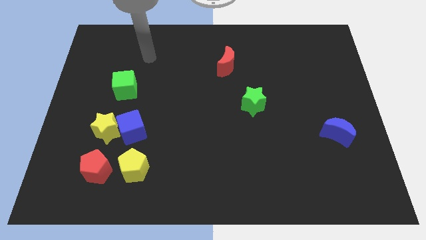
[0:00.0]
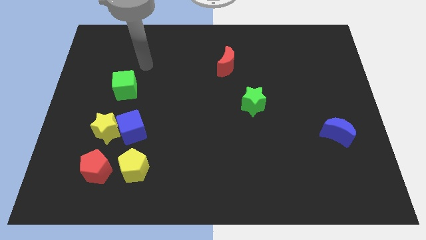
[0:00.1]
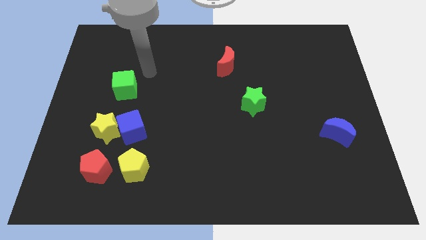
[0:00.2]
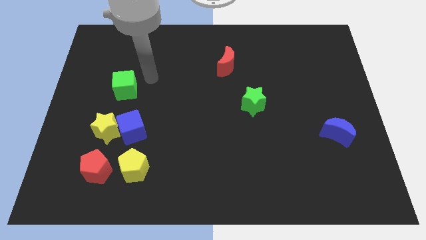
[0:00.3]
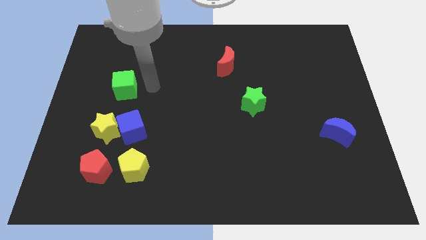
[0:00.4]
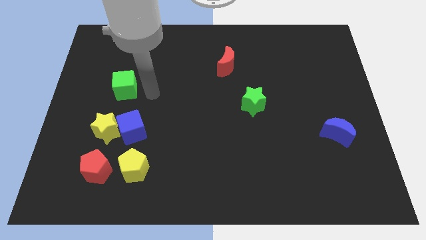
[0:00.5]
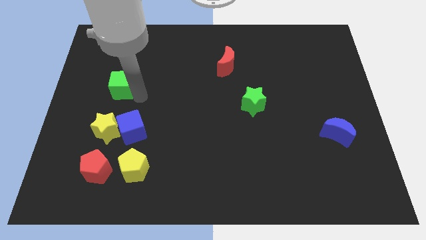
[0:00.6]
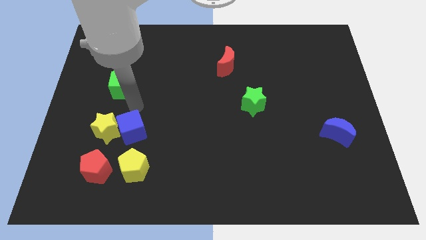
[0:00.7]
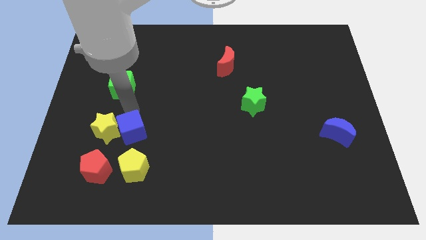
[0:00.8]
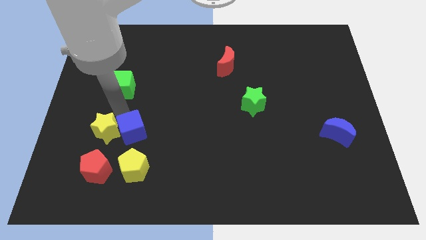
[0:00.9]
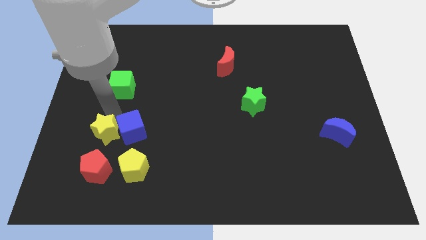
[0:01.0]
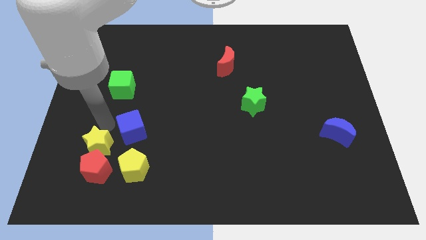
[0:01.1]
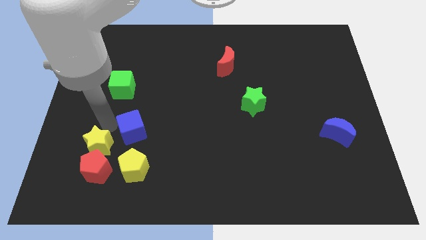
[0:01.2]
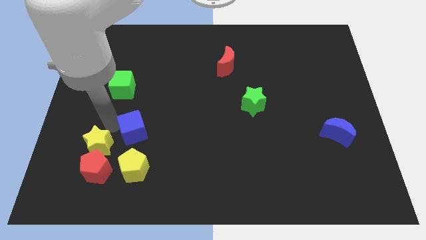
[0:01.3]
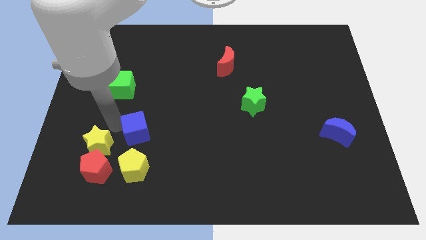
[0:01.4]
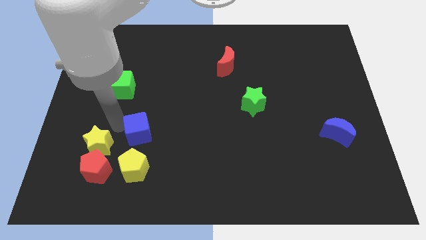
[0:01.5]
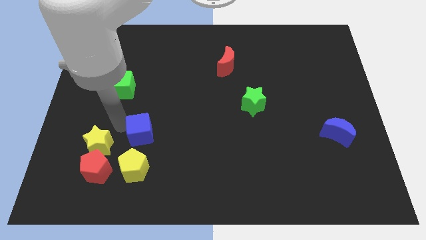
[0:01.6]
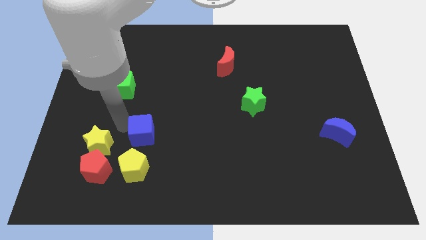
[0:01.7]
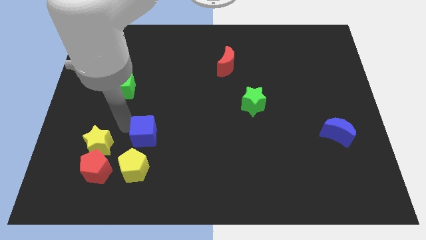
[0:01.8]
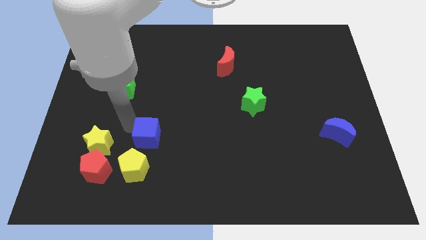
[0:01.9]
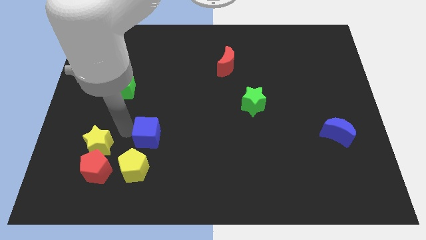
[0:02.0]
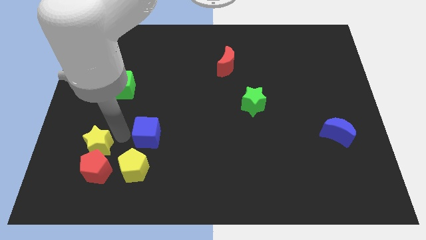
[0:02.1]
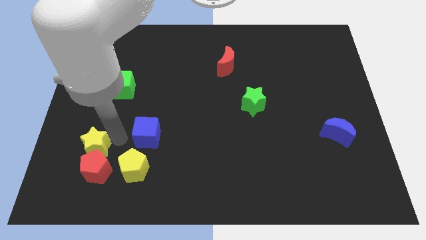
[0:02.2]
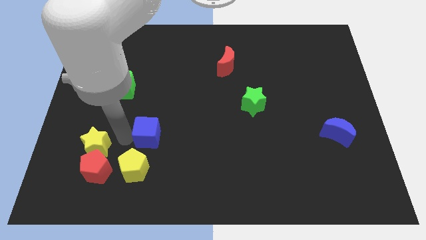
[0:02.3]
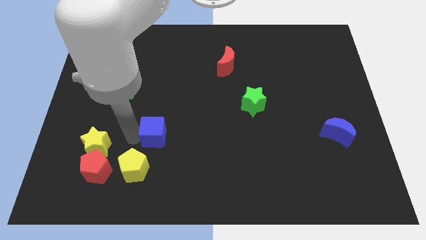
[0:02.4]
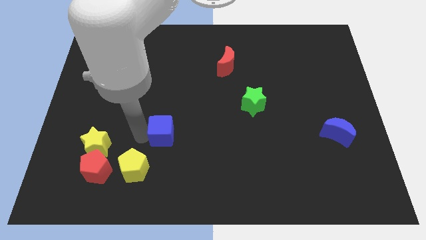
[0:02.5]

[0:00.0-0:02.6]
move the blue cube to the right somewhat

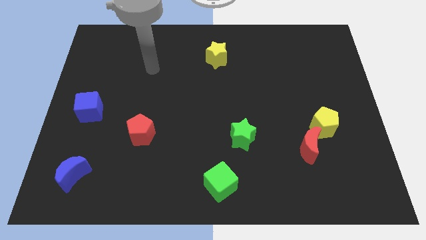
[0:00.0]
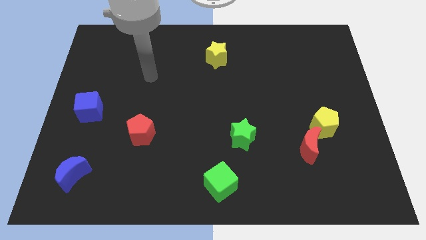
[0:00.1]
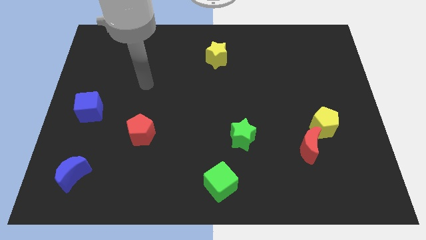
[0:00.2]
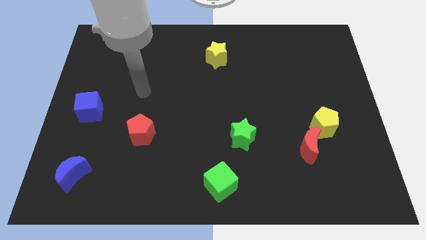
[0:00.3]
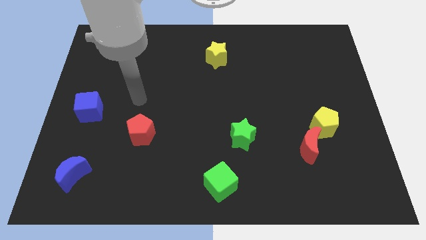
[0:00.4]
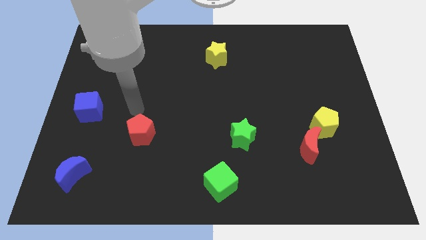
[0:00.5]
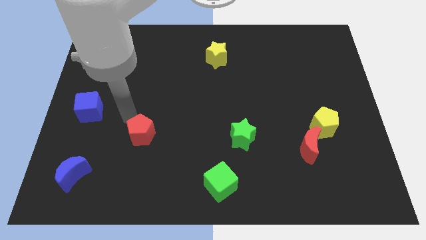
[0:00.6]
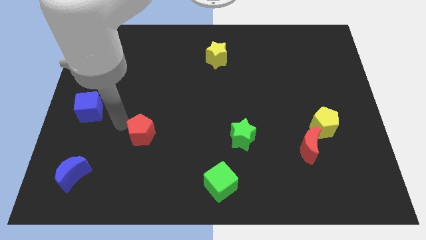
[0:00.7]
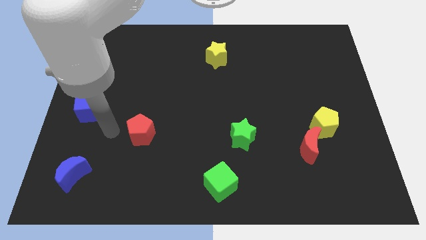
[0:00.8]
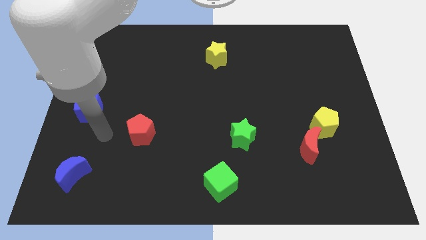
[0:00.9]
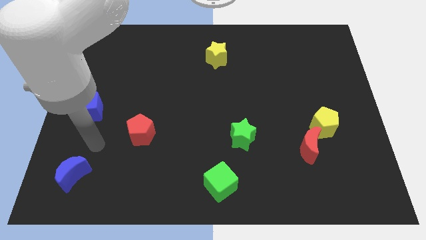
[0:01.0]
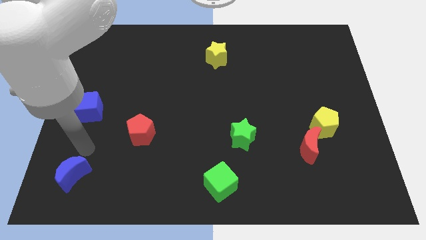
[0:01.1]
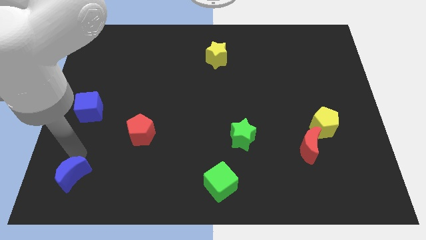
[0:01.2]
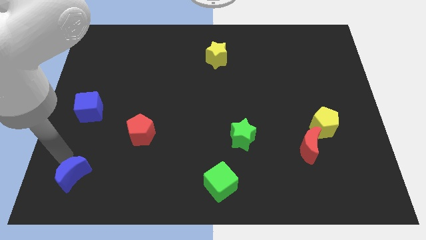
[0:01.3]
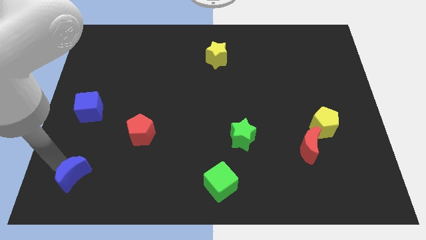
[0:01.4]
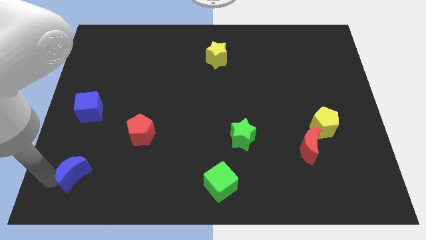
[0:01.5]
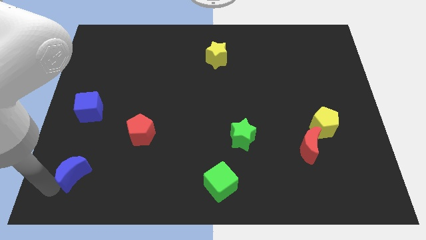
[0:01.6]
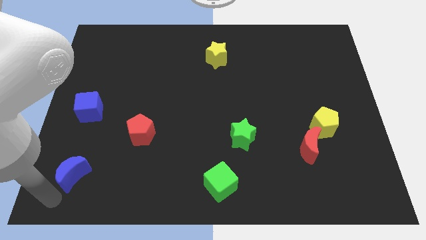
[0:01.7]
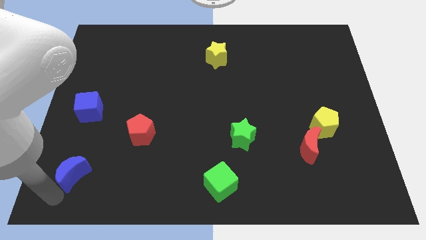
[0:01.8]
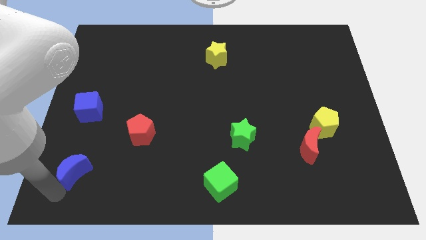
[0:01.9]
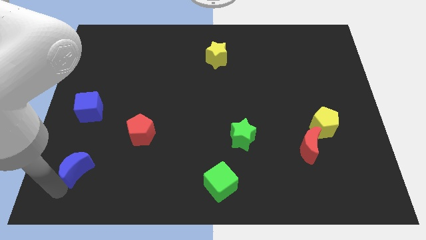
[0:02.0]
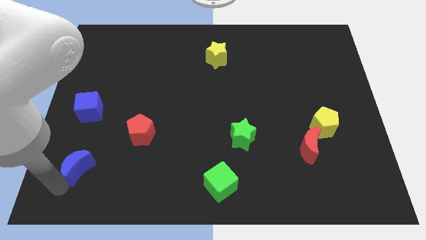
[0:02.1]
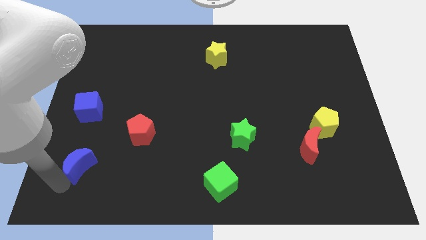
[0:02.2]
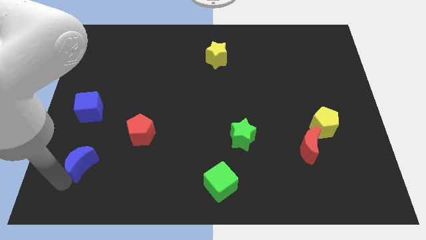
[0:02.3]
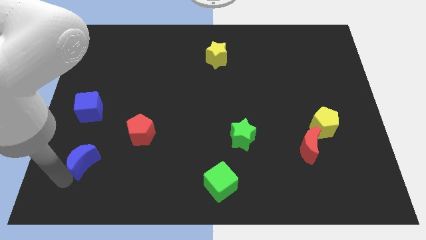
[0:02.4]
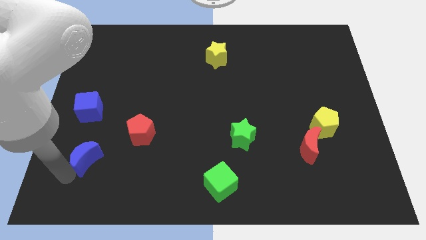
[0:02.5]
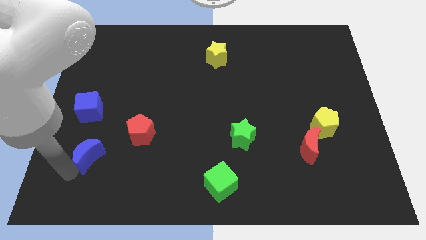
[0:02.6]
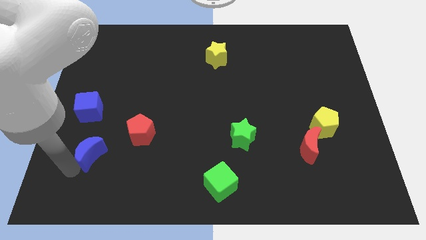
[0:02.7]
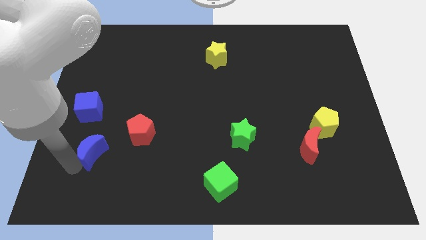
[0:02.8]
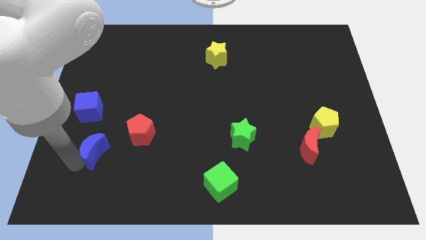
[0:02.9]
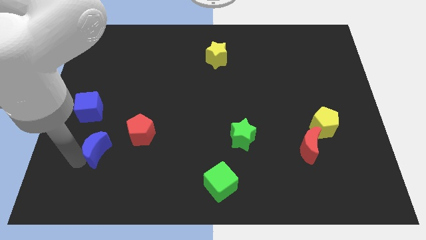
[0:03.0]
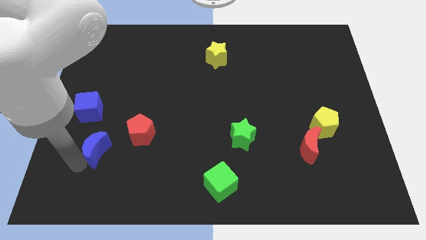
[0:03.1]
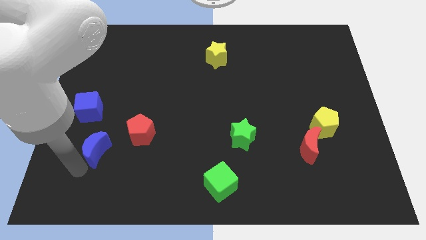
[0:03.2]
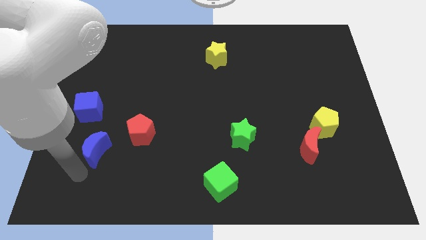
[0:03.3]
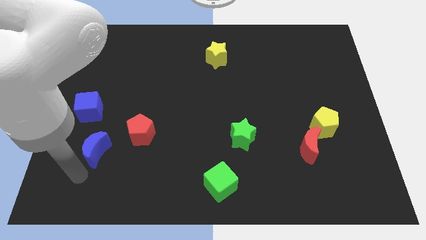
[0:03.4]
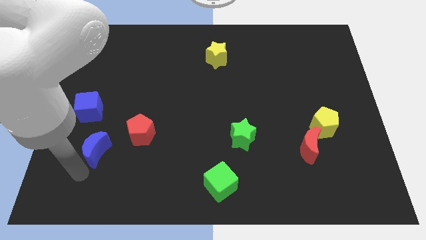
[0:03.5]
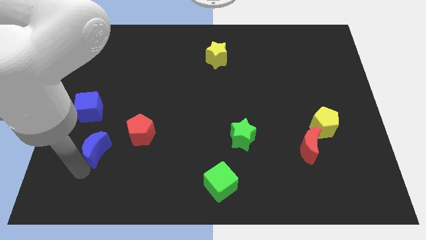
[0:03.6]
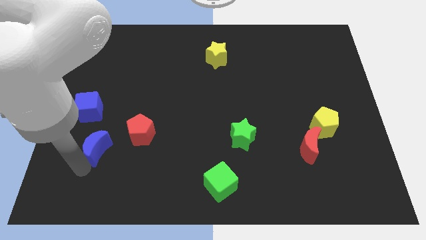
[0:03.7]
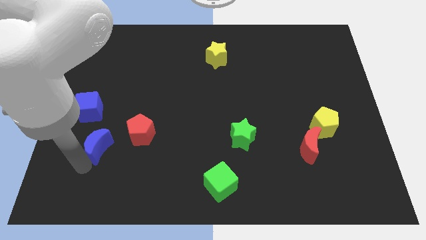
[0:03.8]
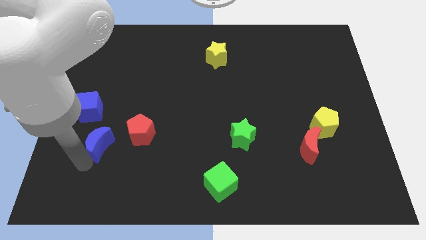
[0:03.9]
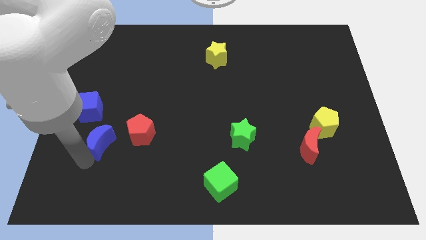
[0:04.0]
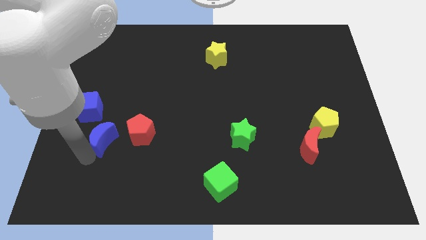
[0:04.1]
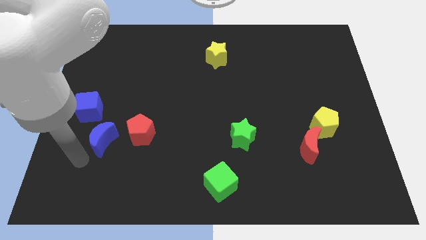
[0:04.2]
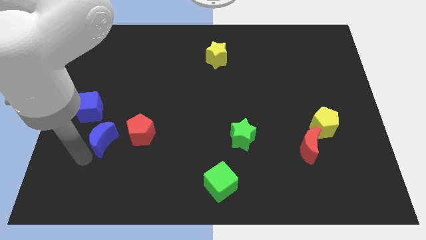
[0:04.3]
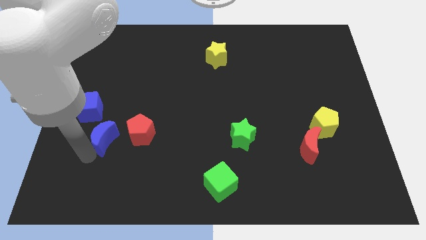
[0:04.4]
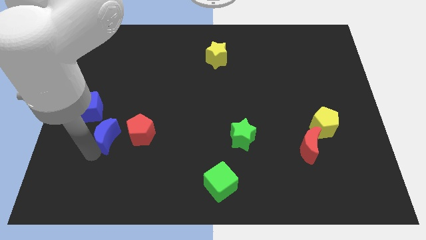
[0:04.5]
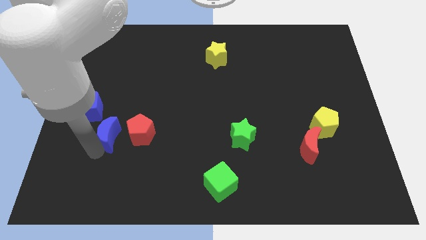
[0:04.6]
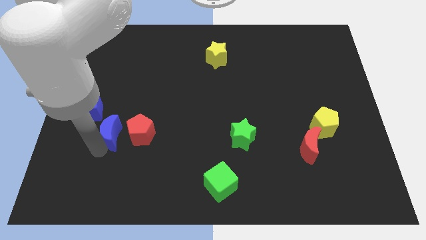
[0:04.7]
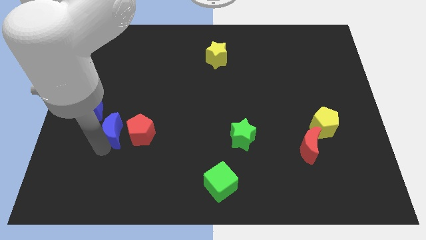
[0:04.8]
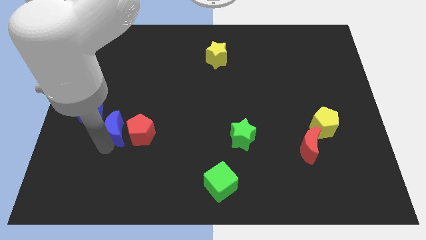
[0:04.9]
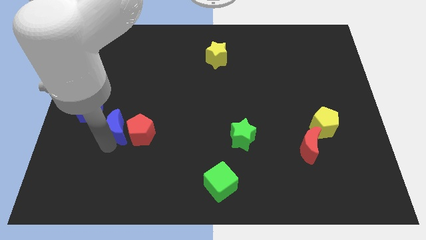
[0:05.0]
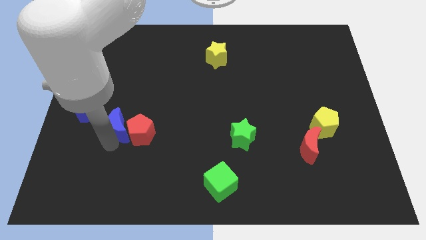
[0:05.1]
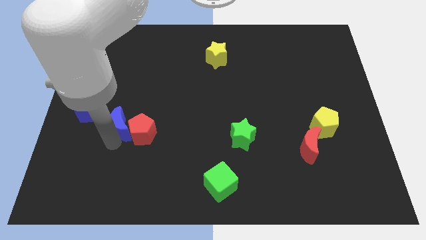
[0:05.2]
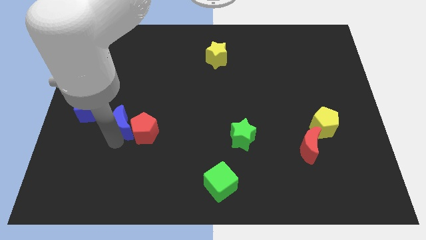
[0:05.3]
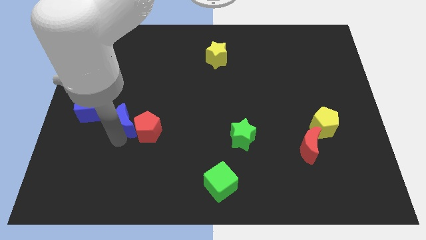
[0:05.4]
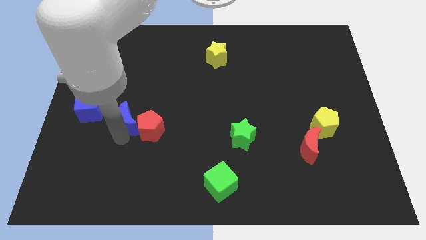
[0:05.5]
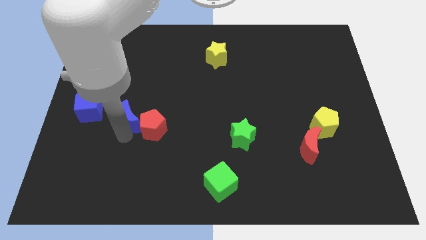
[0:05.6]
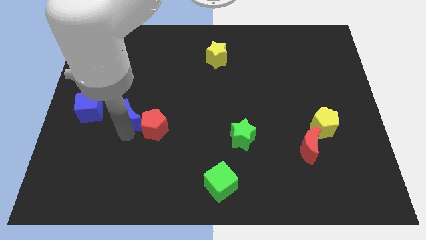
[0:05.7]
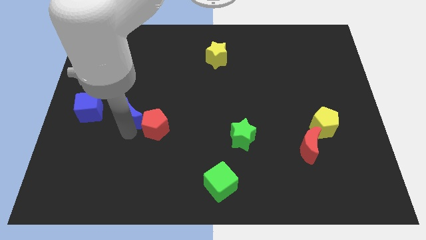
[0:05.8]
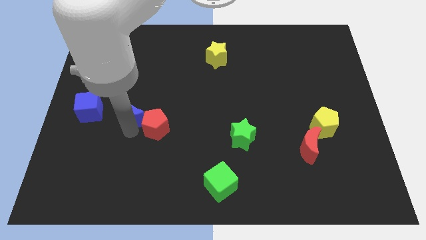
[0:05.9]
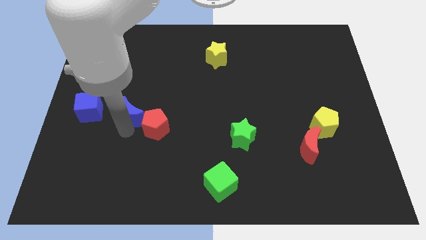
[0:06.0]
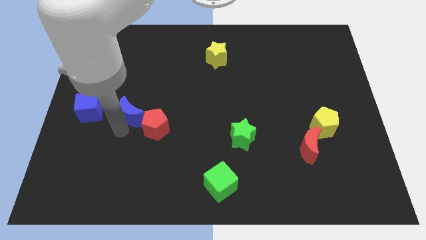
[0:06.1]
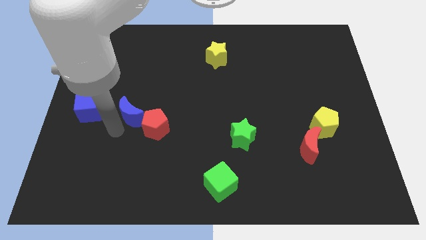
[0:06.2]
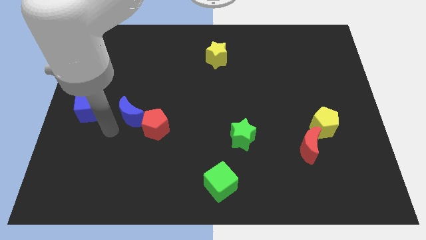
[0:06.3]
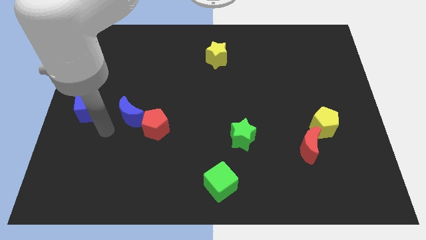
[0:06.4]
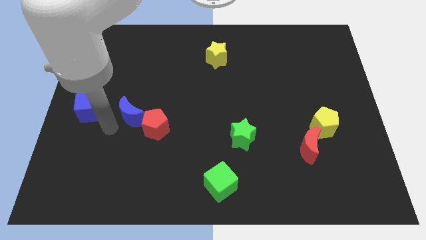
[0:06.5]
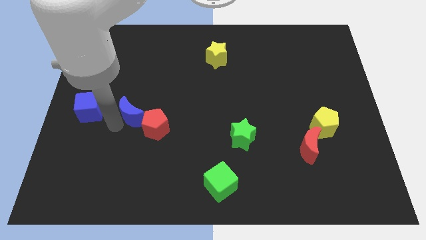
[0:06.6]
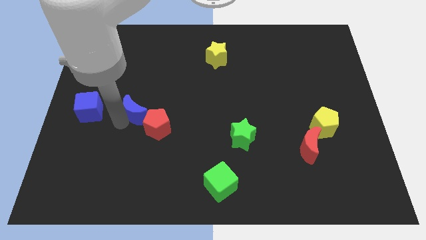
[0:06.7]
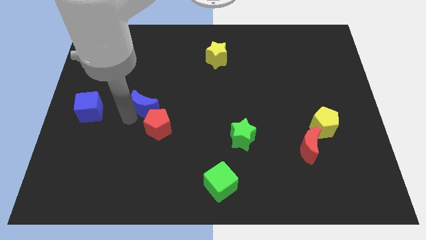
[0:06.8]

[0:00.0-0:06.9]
move the blue moon up and then to the right
